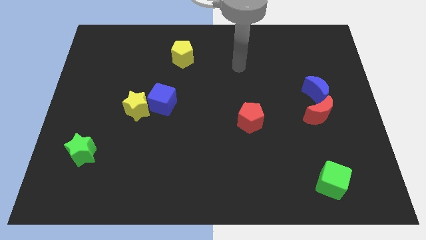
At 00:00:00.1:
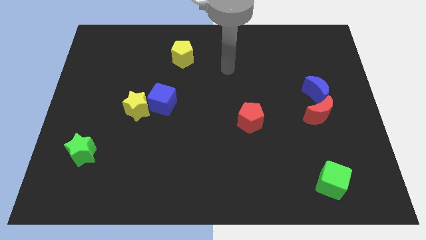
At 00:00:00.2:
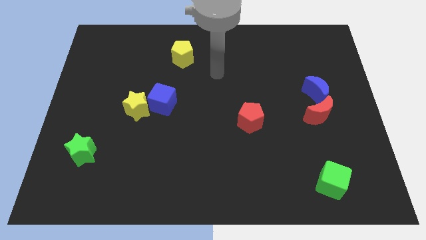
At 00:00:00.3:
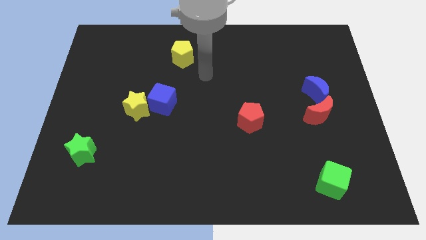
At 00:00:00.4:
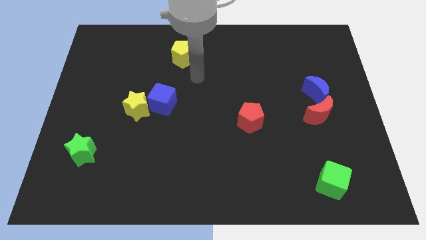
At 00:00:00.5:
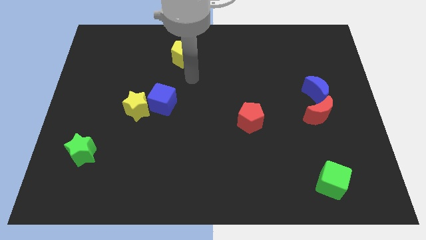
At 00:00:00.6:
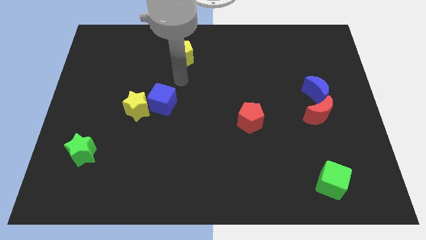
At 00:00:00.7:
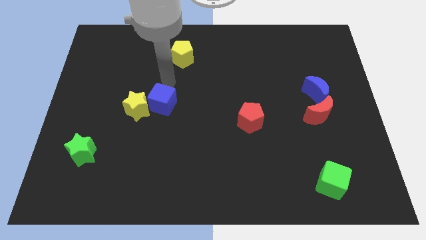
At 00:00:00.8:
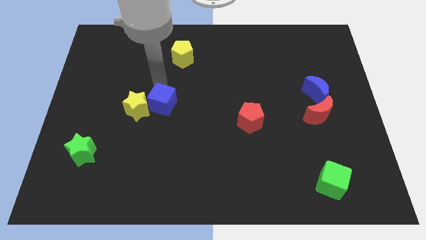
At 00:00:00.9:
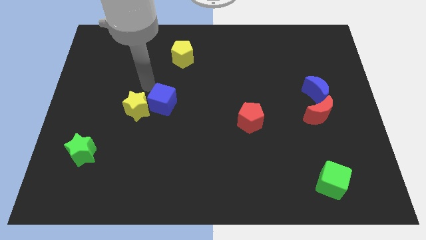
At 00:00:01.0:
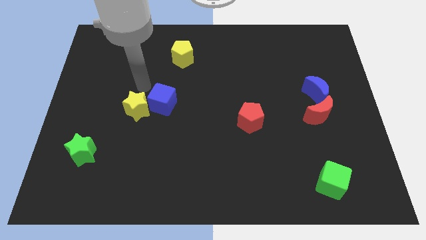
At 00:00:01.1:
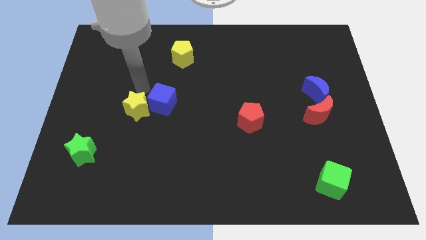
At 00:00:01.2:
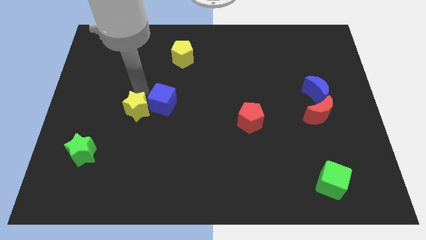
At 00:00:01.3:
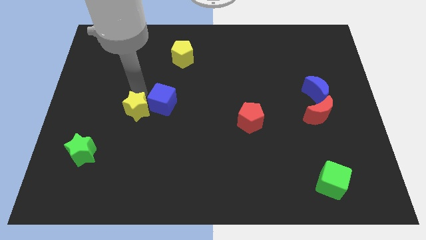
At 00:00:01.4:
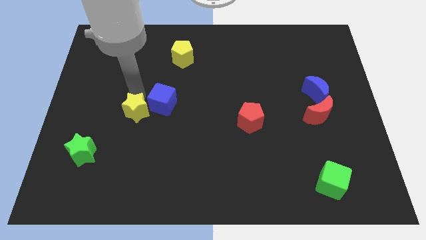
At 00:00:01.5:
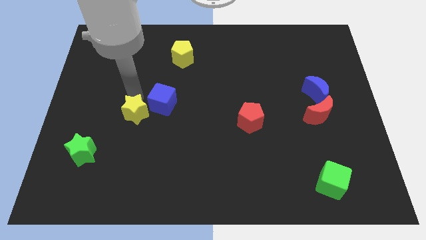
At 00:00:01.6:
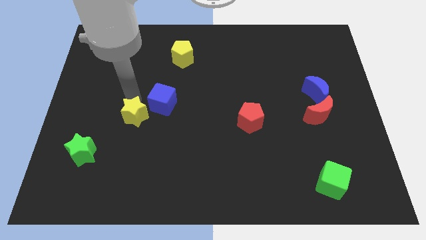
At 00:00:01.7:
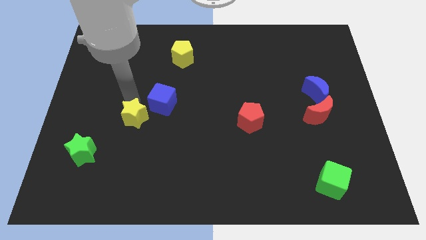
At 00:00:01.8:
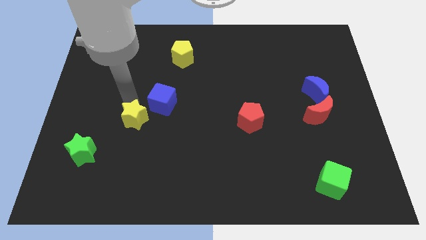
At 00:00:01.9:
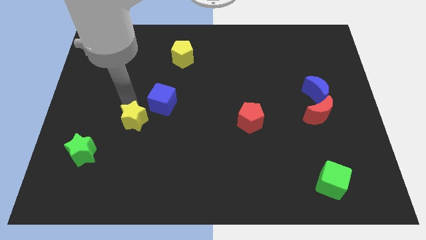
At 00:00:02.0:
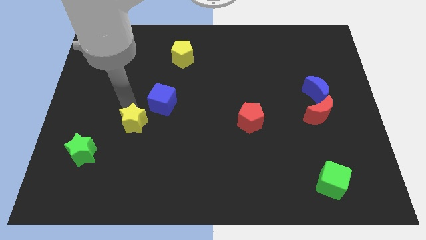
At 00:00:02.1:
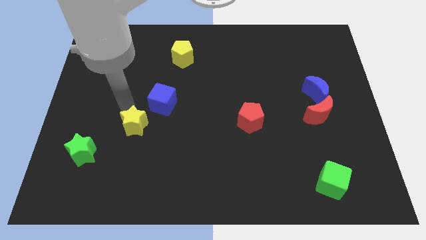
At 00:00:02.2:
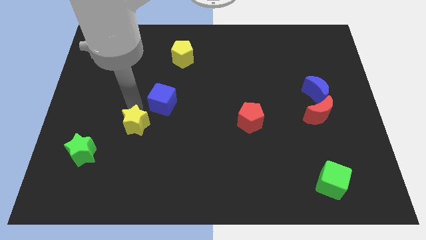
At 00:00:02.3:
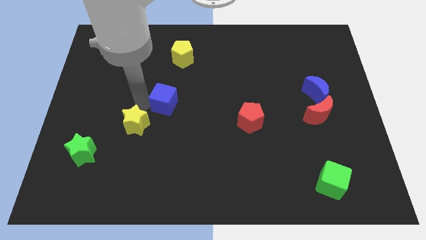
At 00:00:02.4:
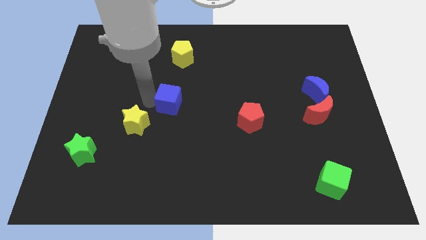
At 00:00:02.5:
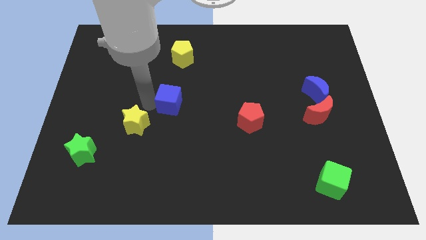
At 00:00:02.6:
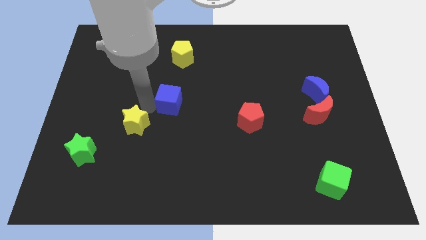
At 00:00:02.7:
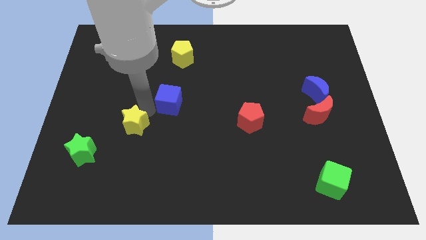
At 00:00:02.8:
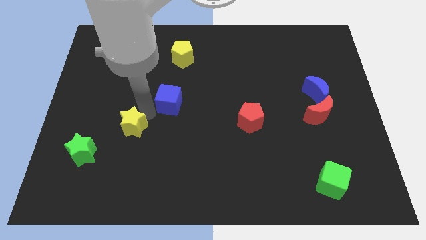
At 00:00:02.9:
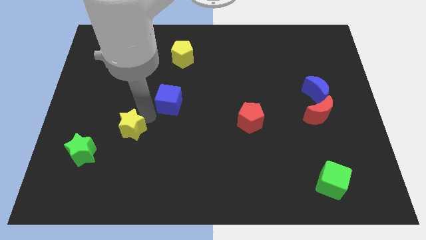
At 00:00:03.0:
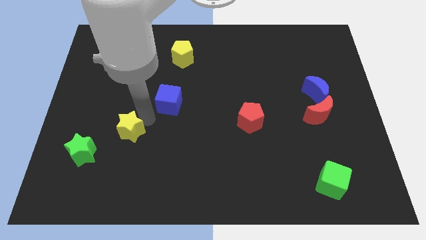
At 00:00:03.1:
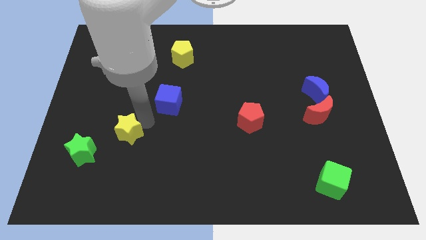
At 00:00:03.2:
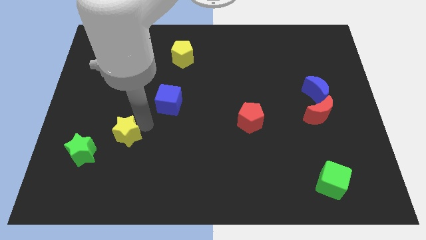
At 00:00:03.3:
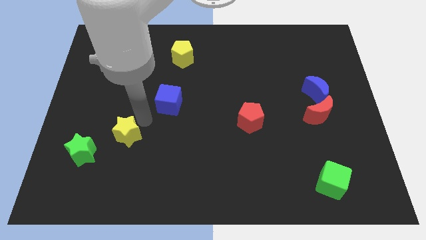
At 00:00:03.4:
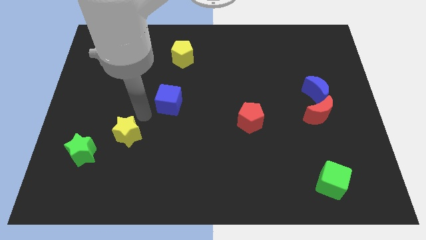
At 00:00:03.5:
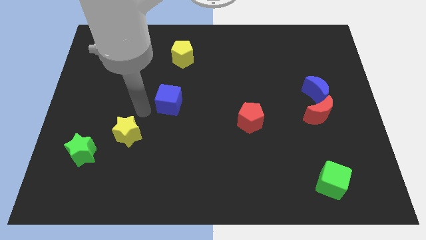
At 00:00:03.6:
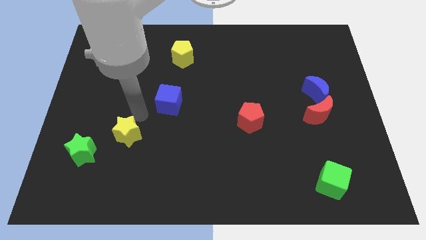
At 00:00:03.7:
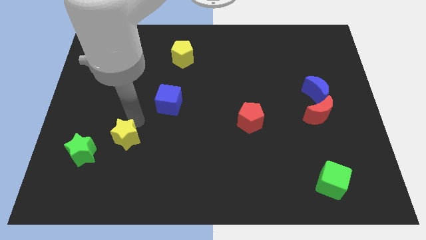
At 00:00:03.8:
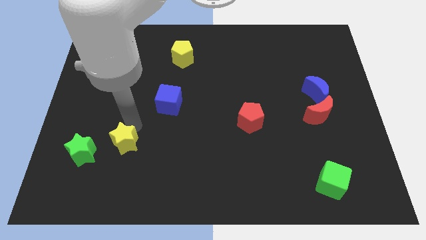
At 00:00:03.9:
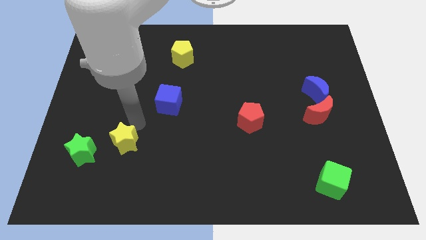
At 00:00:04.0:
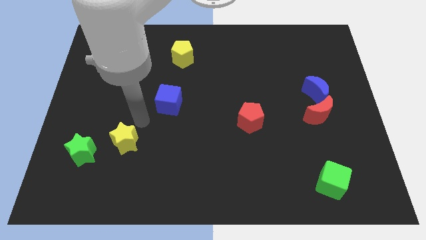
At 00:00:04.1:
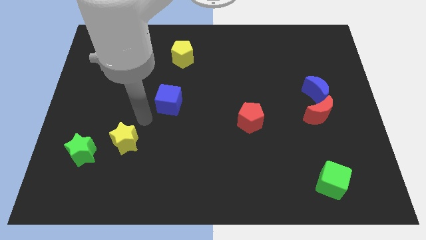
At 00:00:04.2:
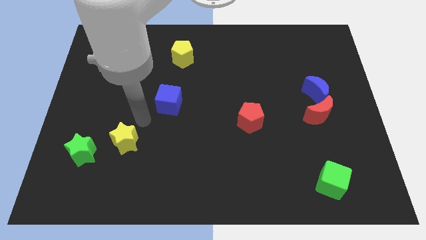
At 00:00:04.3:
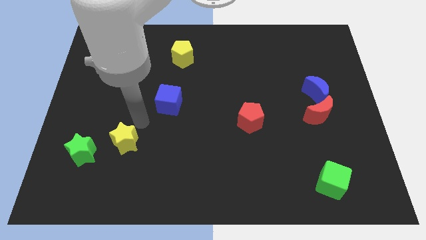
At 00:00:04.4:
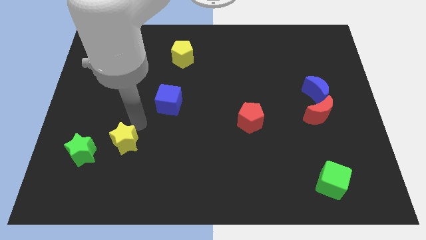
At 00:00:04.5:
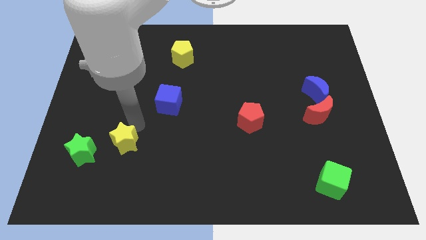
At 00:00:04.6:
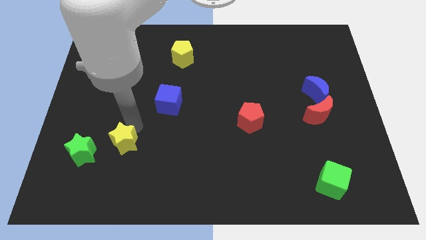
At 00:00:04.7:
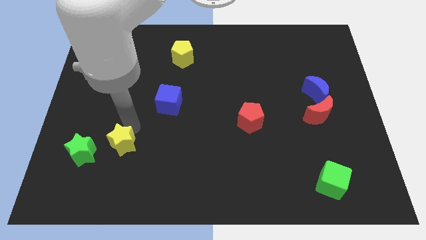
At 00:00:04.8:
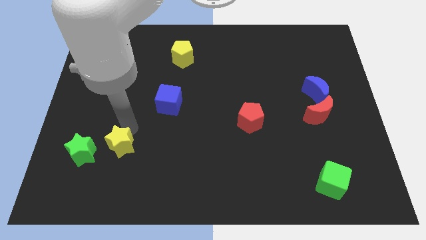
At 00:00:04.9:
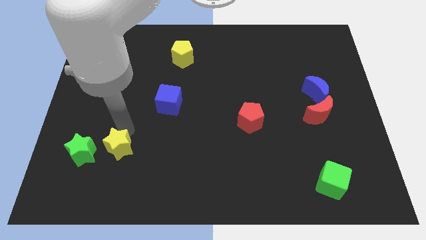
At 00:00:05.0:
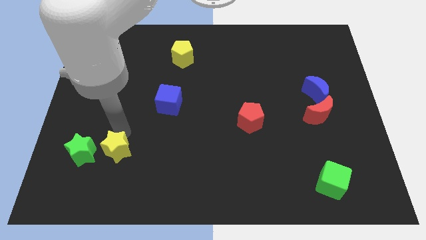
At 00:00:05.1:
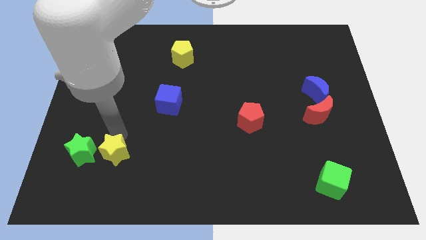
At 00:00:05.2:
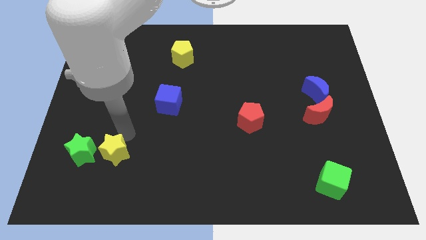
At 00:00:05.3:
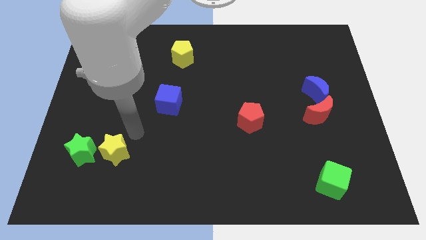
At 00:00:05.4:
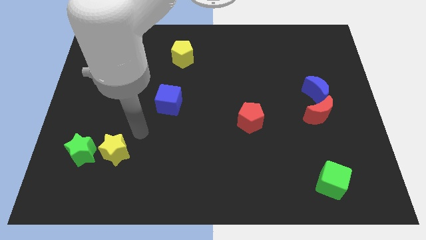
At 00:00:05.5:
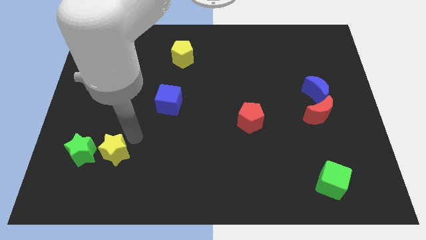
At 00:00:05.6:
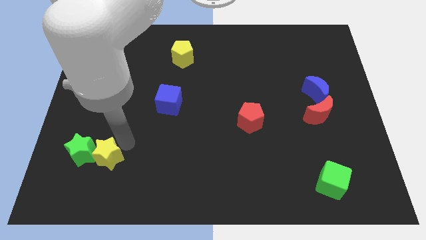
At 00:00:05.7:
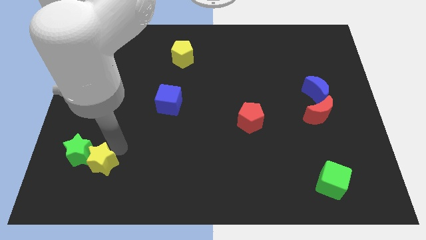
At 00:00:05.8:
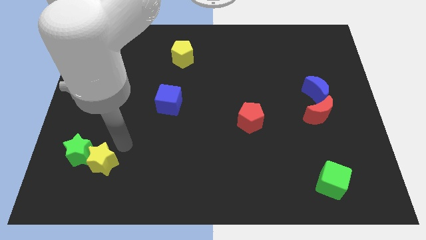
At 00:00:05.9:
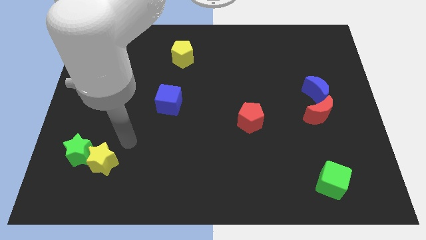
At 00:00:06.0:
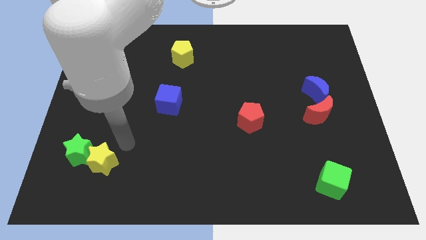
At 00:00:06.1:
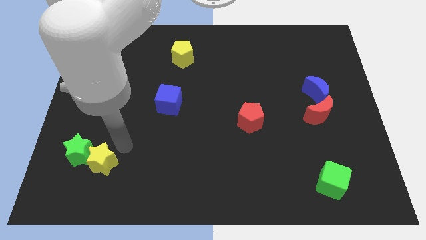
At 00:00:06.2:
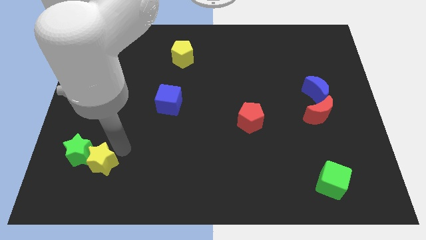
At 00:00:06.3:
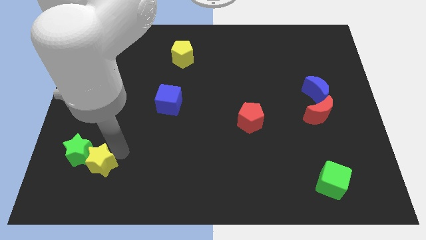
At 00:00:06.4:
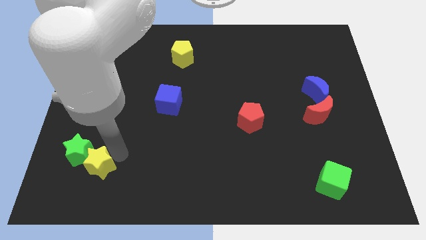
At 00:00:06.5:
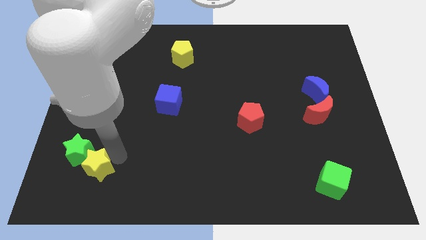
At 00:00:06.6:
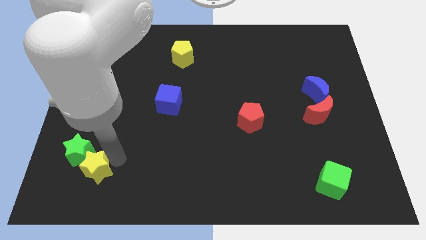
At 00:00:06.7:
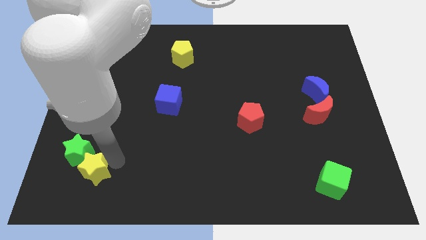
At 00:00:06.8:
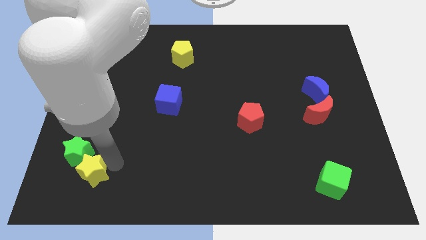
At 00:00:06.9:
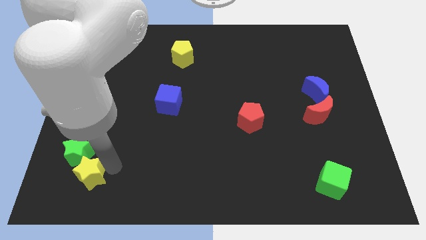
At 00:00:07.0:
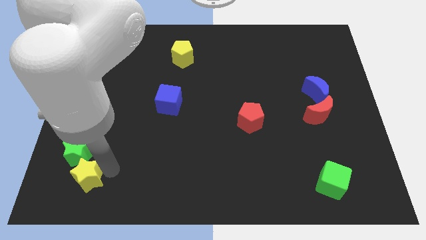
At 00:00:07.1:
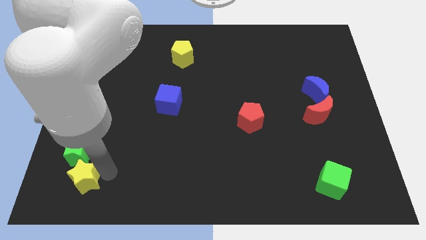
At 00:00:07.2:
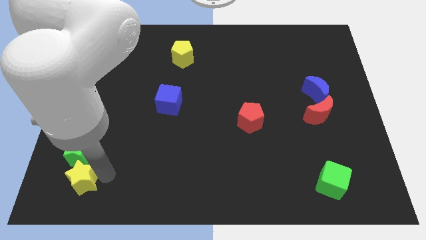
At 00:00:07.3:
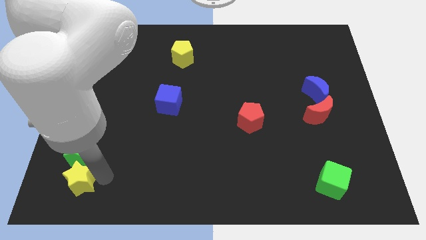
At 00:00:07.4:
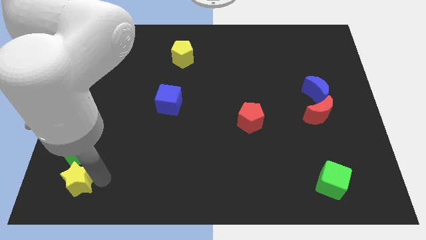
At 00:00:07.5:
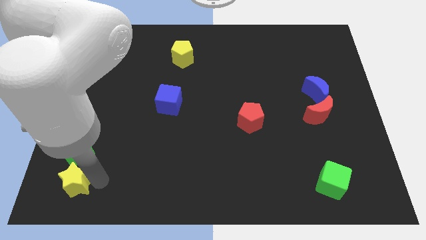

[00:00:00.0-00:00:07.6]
slide the yellow star to the bottom left corner
